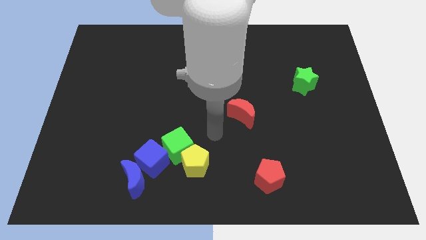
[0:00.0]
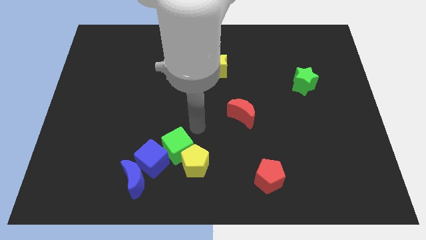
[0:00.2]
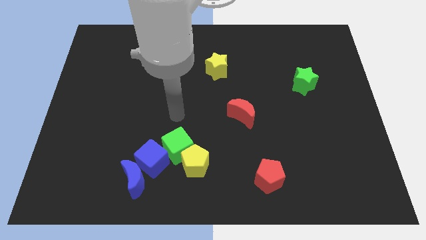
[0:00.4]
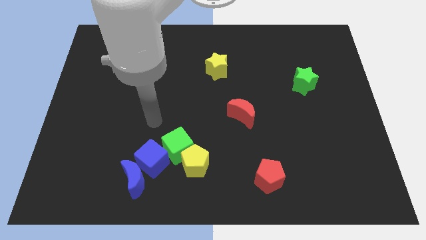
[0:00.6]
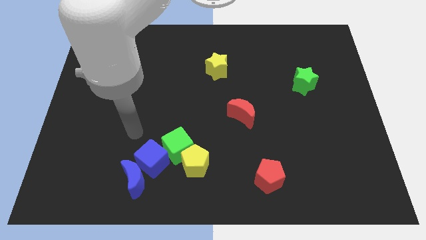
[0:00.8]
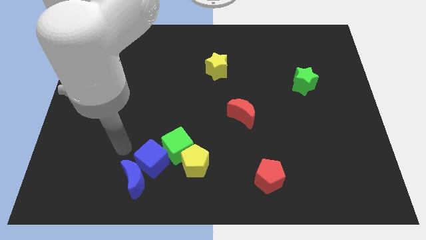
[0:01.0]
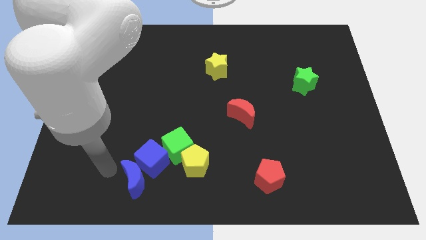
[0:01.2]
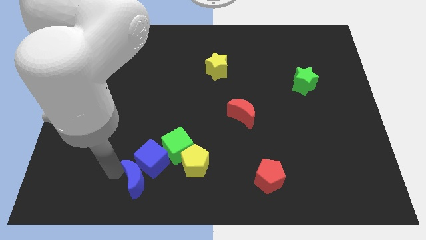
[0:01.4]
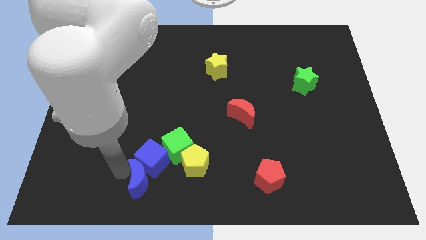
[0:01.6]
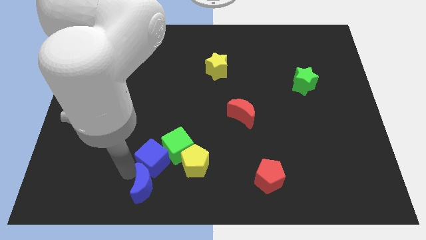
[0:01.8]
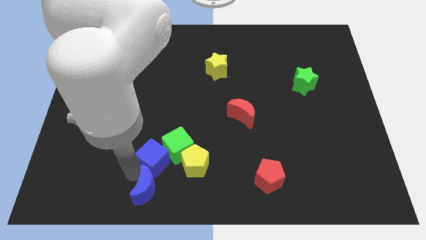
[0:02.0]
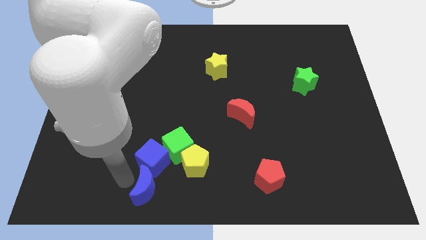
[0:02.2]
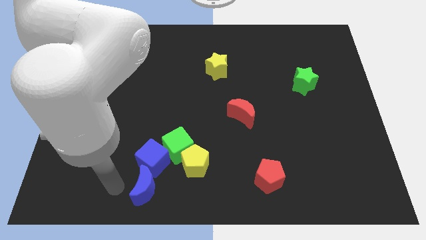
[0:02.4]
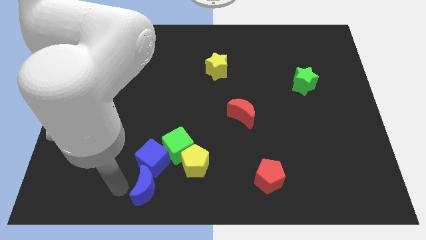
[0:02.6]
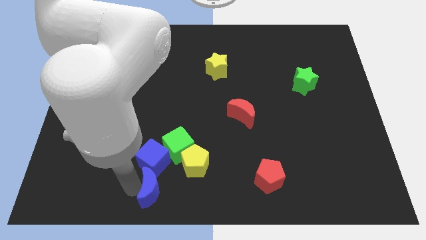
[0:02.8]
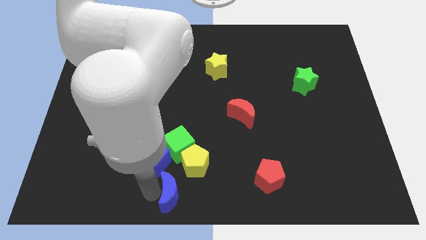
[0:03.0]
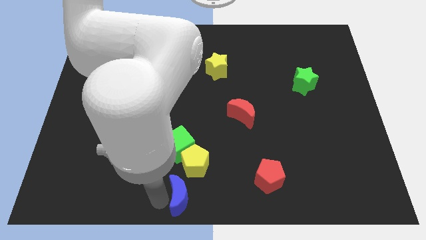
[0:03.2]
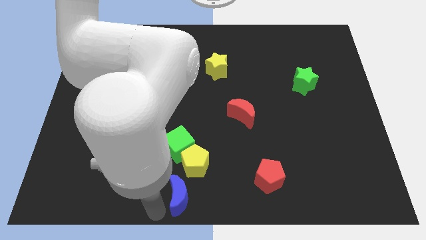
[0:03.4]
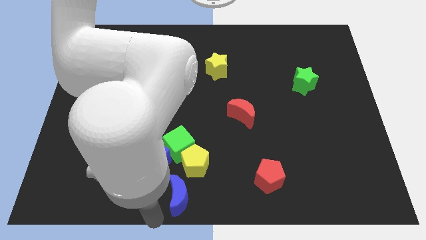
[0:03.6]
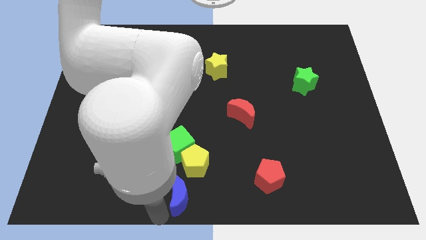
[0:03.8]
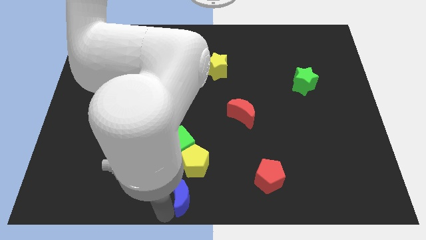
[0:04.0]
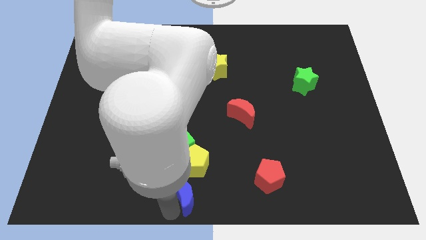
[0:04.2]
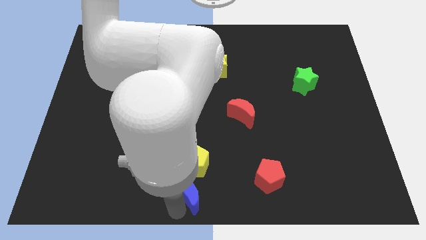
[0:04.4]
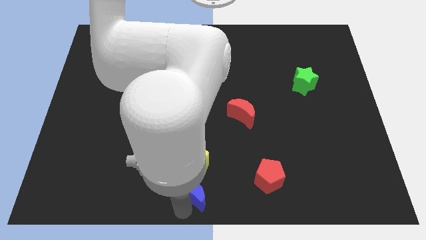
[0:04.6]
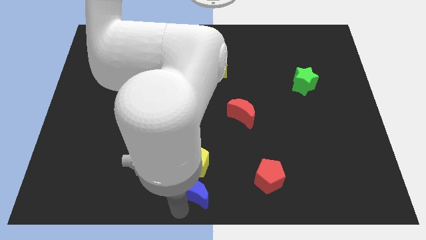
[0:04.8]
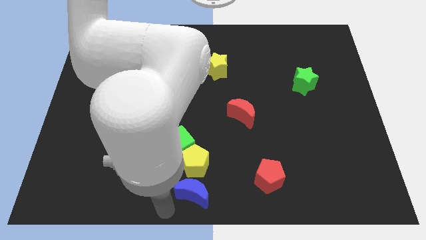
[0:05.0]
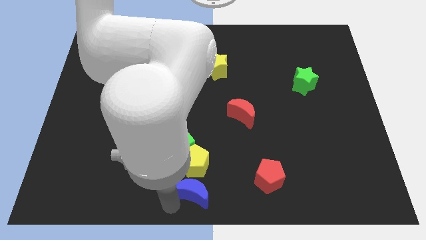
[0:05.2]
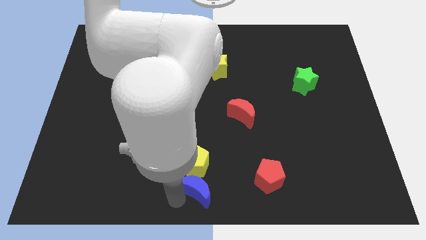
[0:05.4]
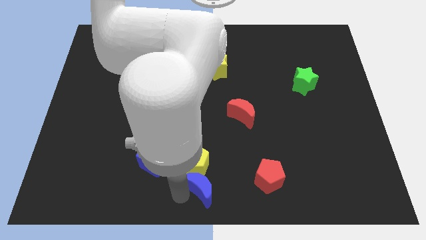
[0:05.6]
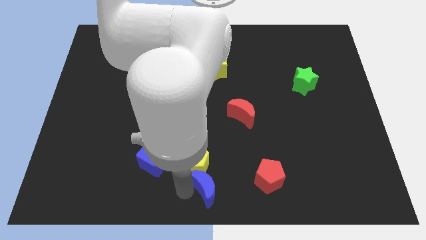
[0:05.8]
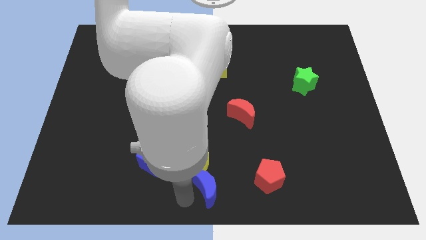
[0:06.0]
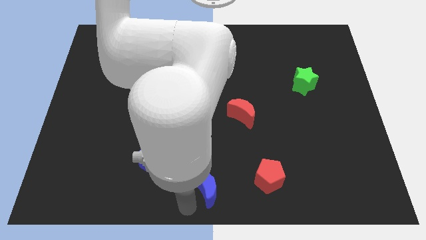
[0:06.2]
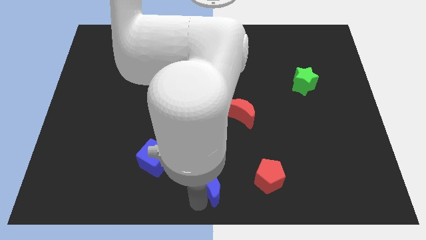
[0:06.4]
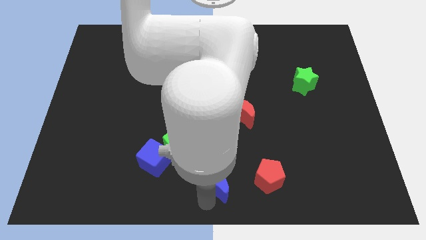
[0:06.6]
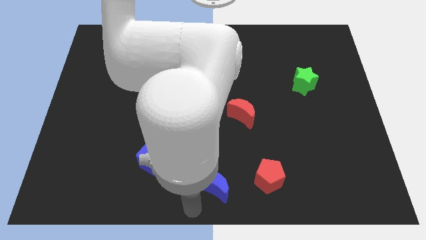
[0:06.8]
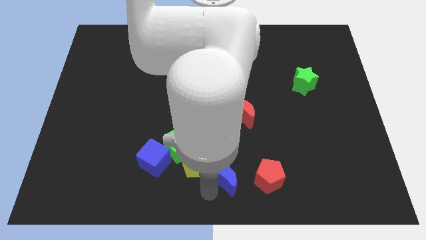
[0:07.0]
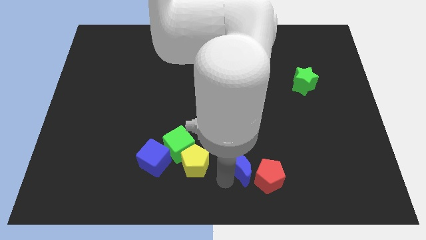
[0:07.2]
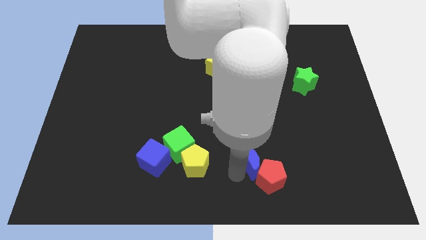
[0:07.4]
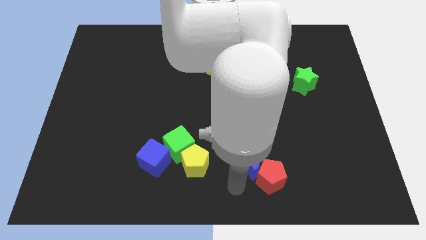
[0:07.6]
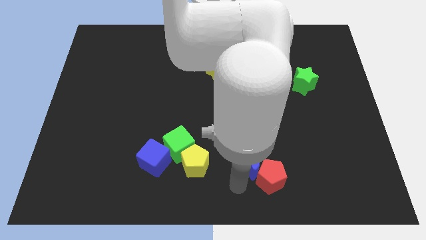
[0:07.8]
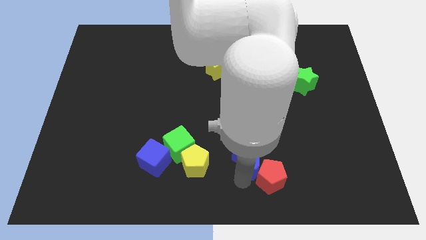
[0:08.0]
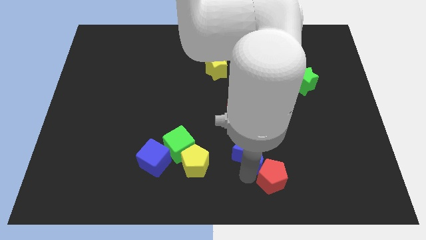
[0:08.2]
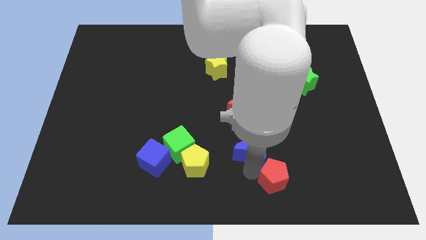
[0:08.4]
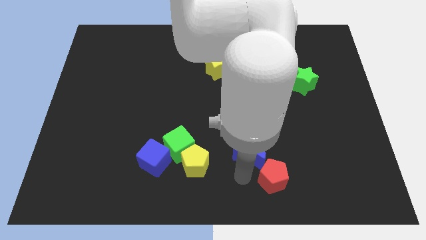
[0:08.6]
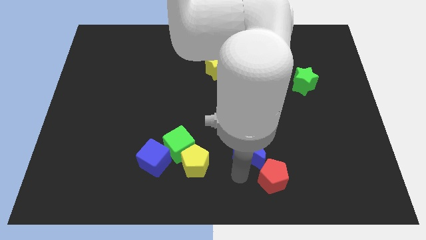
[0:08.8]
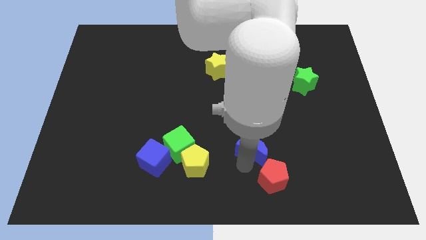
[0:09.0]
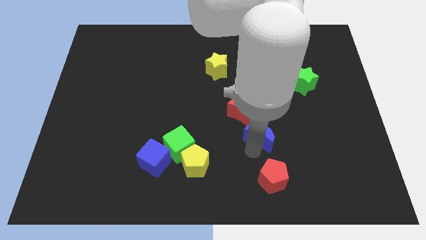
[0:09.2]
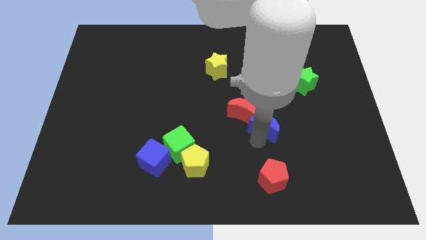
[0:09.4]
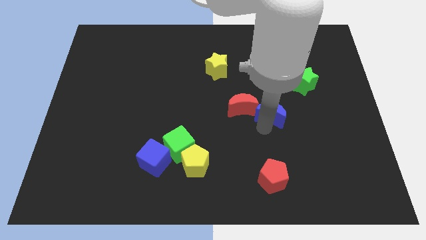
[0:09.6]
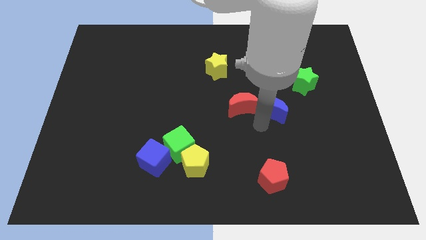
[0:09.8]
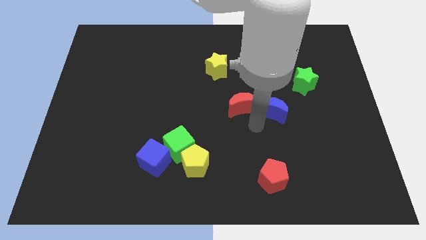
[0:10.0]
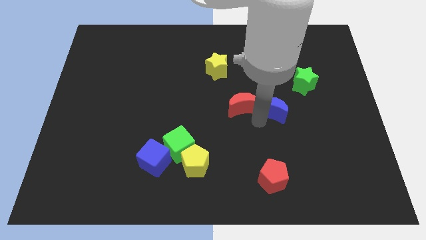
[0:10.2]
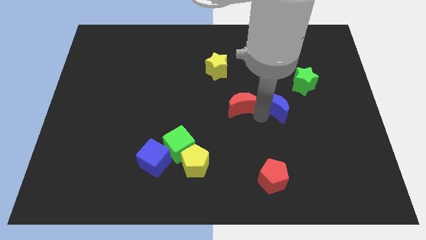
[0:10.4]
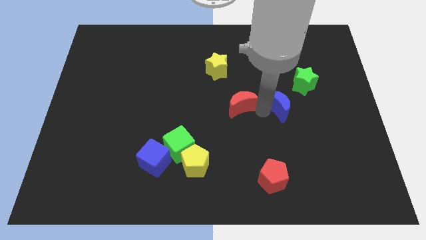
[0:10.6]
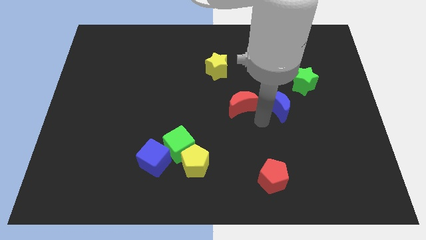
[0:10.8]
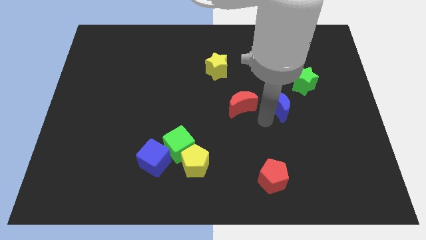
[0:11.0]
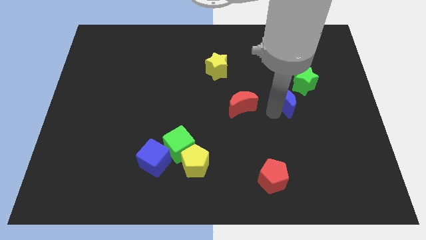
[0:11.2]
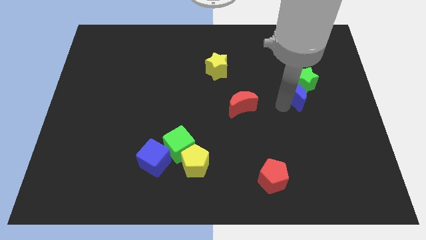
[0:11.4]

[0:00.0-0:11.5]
push the blue moon towards the green star

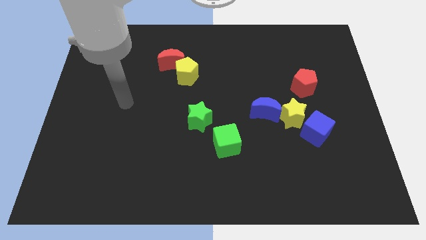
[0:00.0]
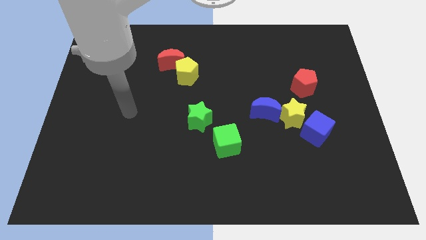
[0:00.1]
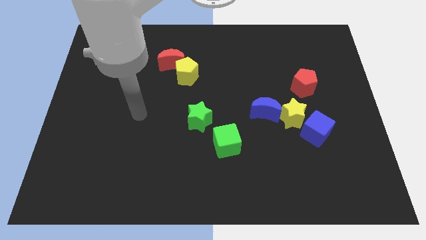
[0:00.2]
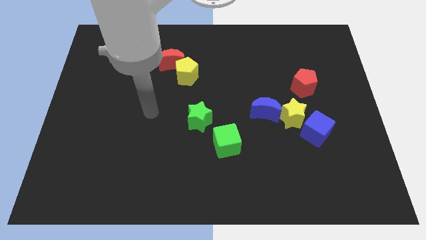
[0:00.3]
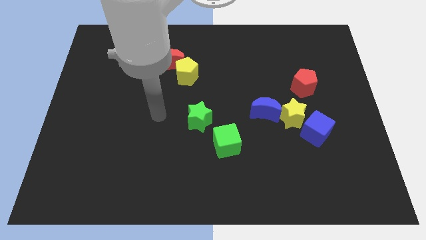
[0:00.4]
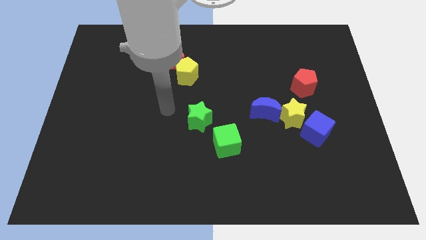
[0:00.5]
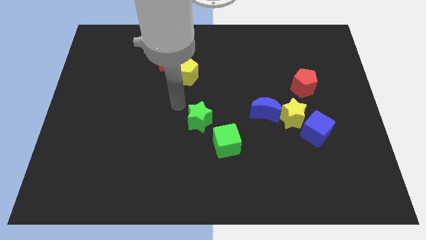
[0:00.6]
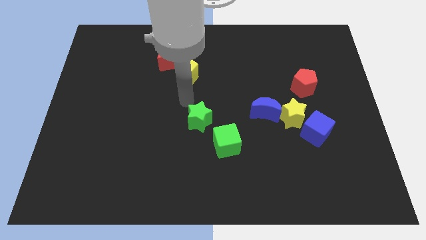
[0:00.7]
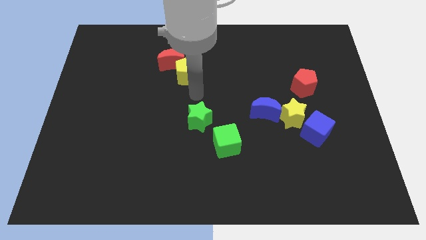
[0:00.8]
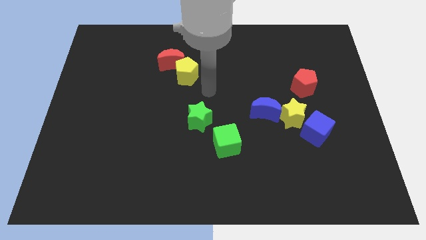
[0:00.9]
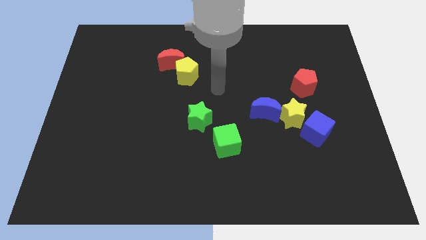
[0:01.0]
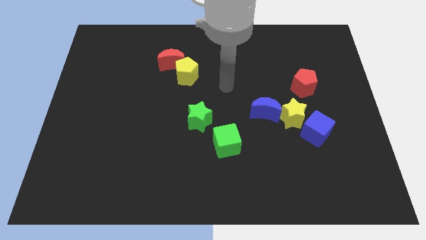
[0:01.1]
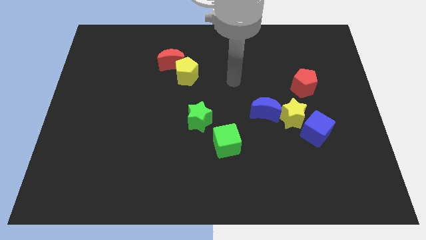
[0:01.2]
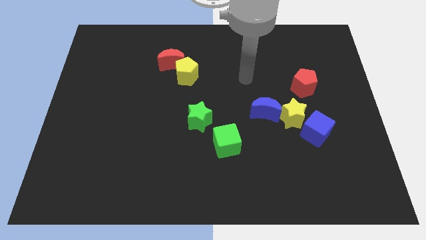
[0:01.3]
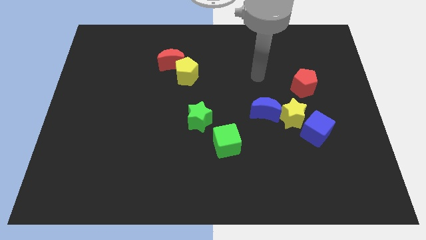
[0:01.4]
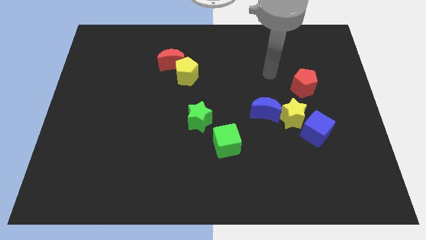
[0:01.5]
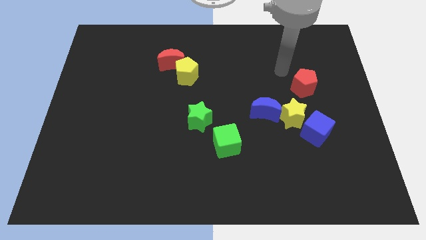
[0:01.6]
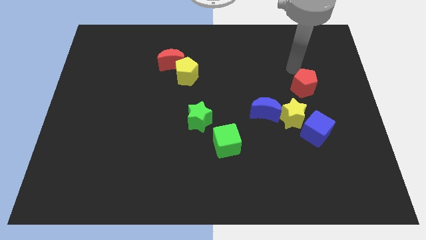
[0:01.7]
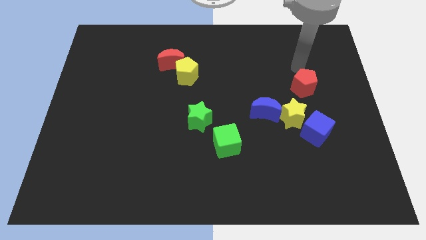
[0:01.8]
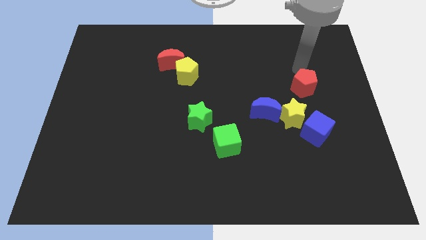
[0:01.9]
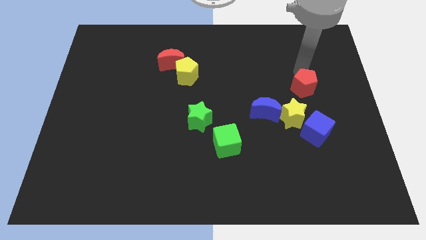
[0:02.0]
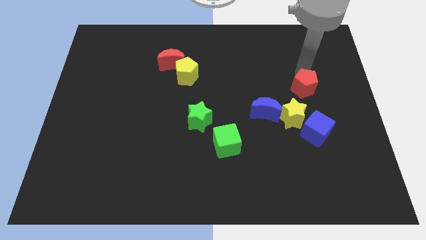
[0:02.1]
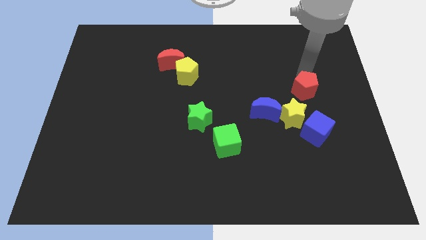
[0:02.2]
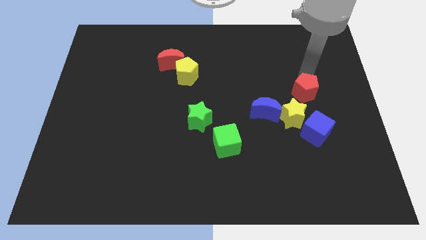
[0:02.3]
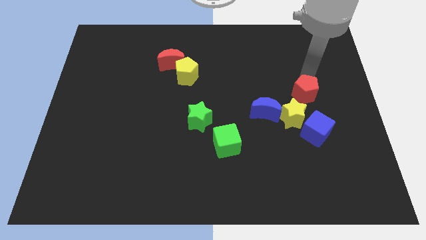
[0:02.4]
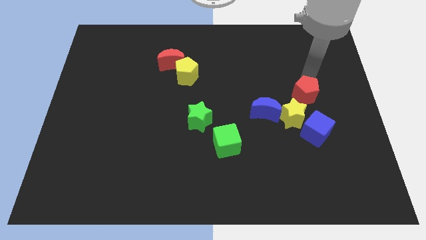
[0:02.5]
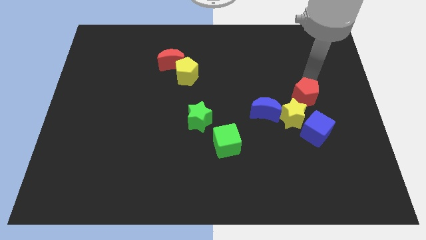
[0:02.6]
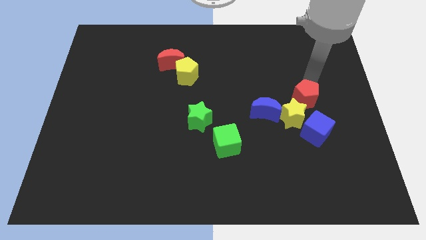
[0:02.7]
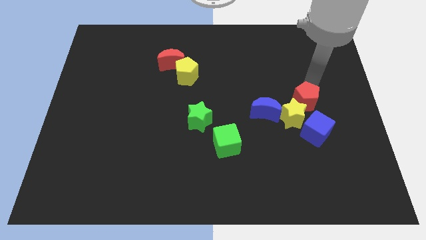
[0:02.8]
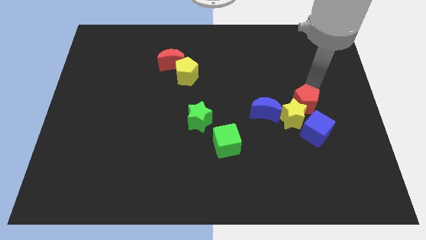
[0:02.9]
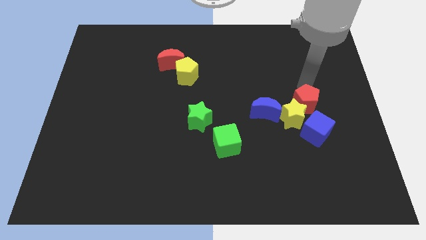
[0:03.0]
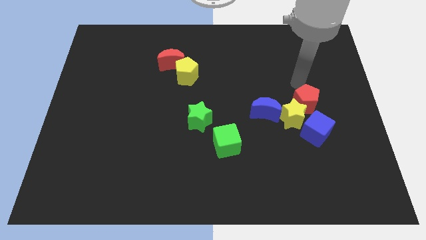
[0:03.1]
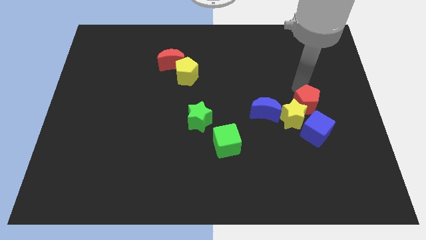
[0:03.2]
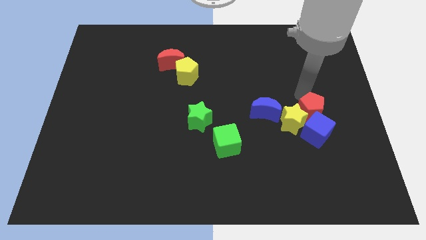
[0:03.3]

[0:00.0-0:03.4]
slide the red pentagon towards the blue cube
